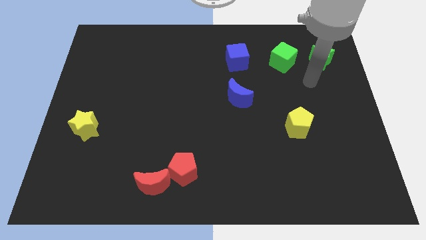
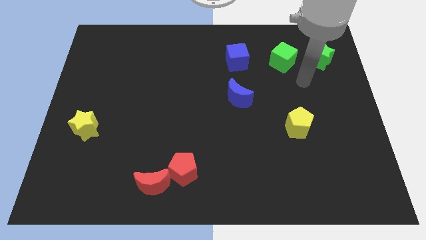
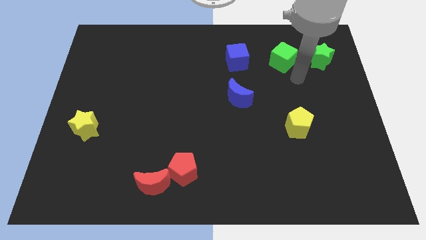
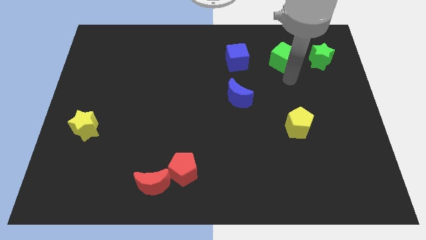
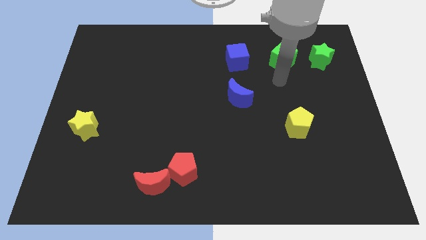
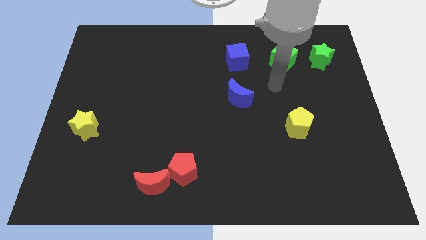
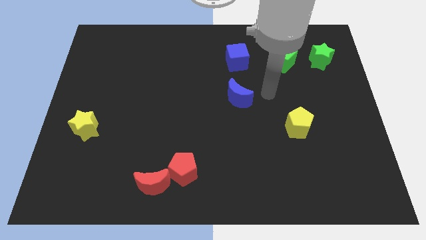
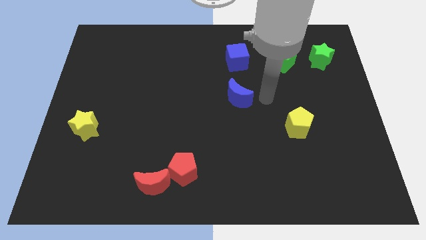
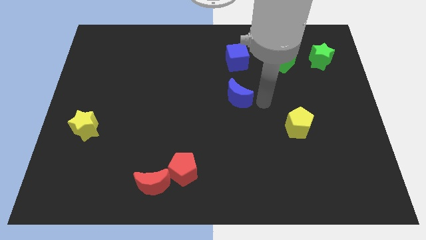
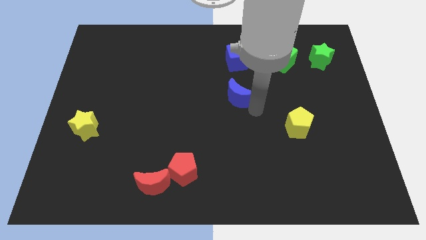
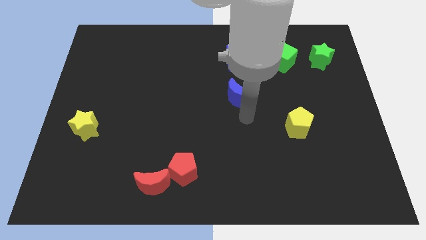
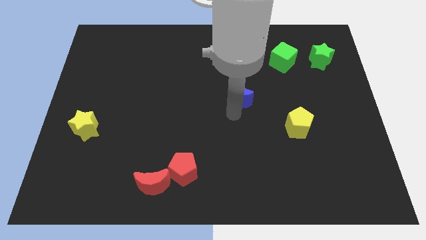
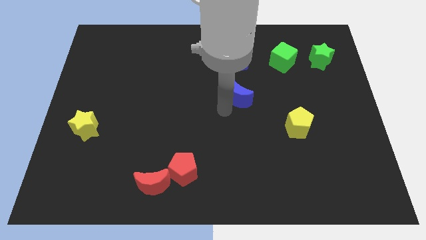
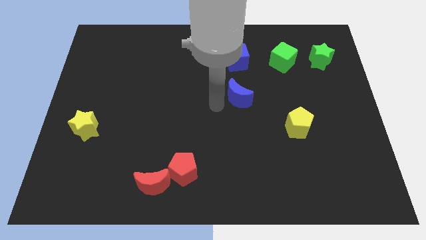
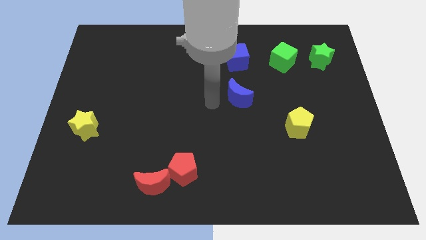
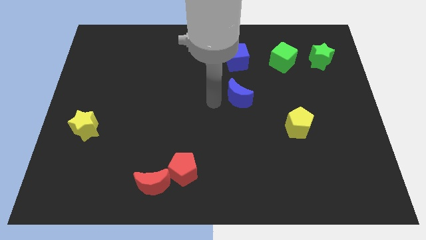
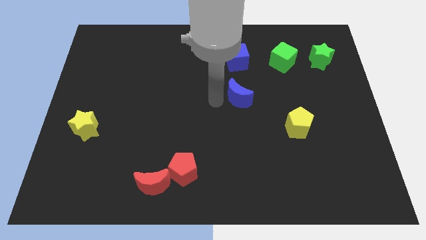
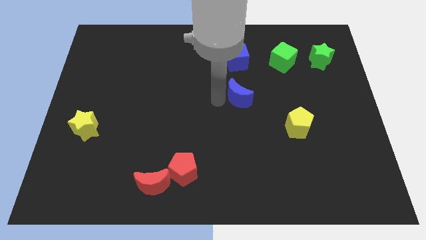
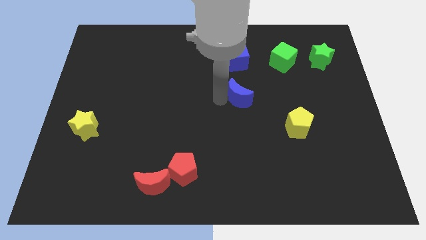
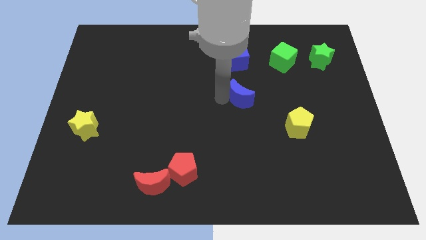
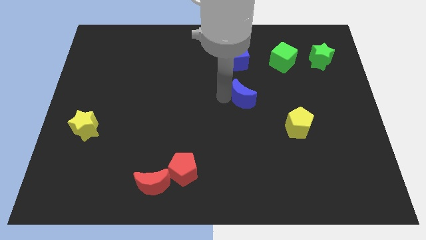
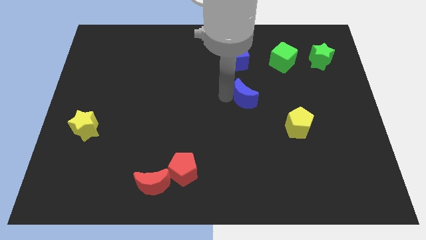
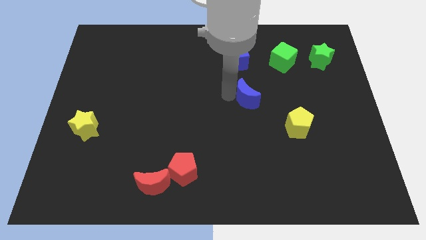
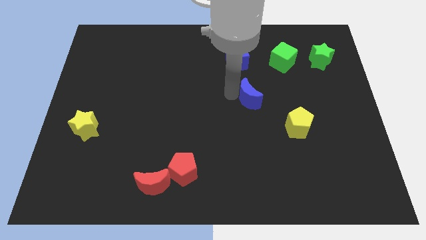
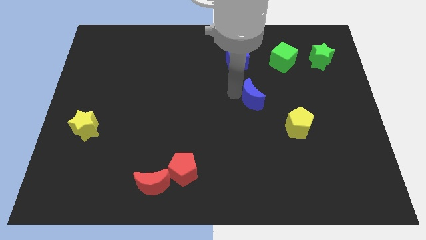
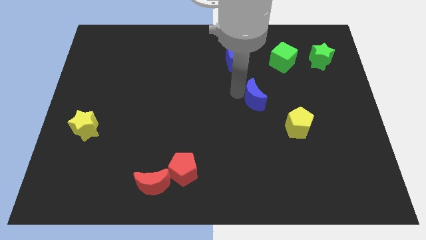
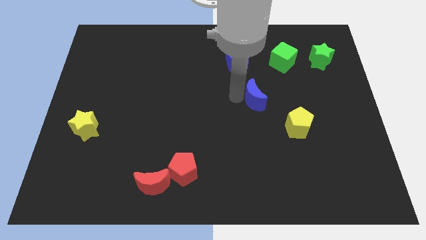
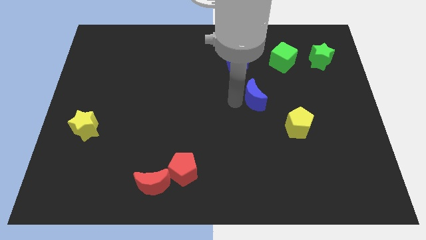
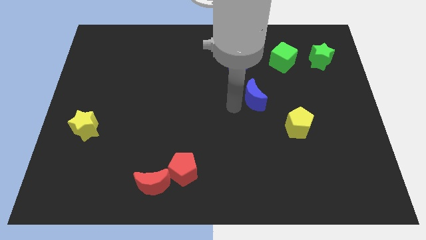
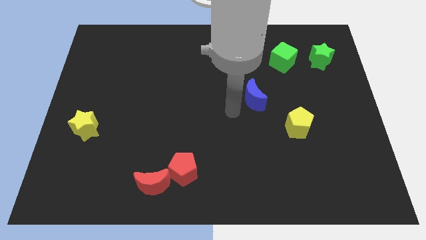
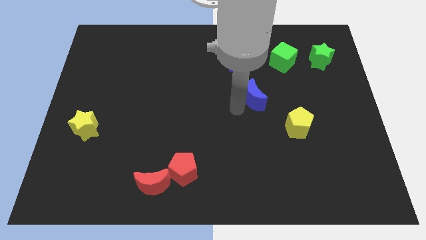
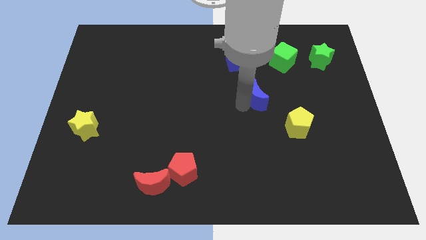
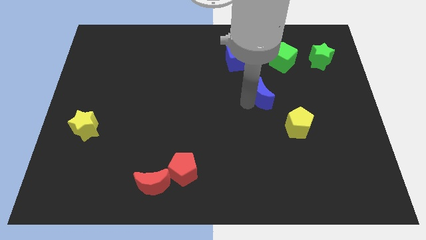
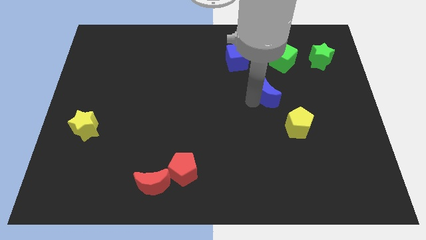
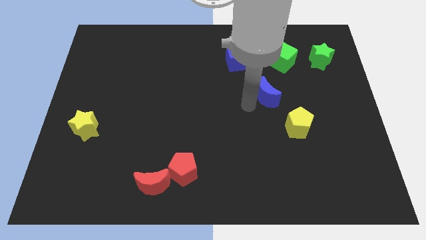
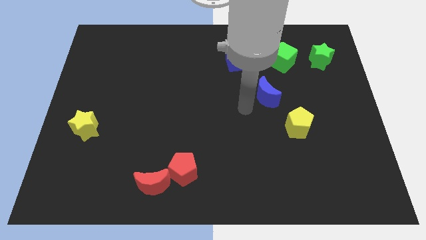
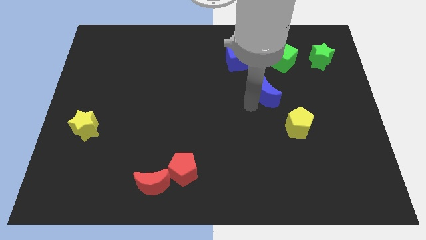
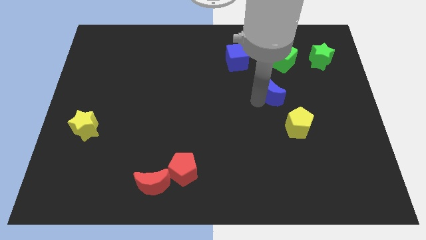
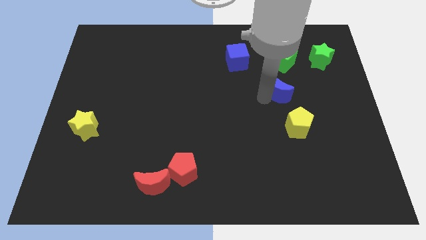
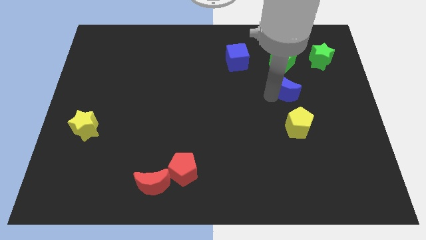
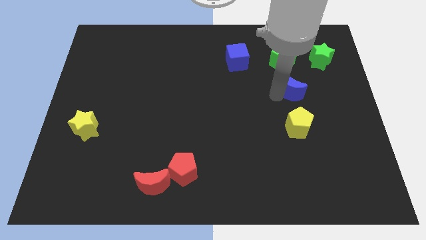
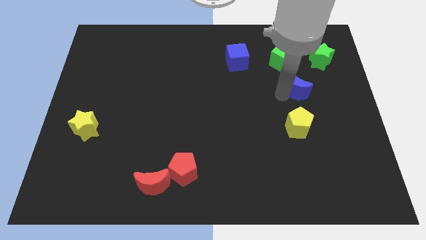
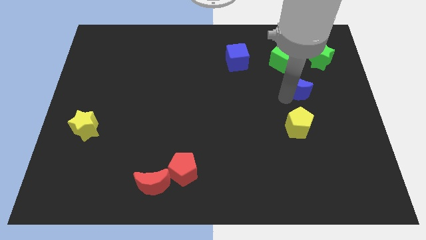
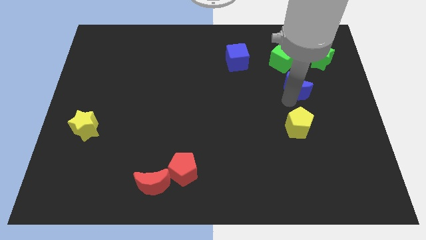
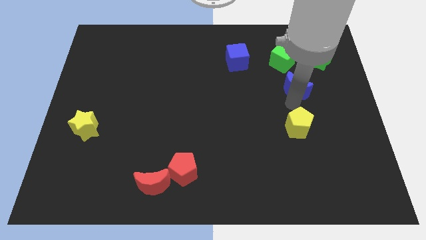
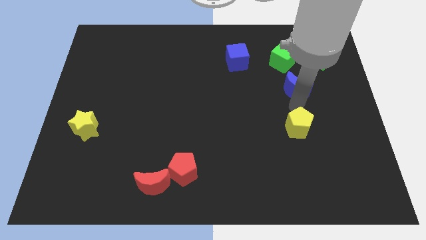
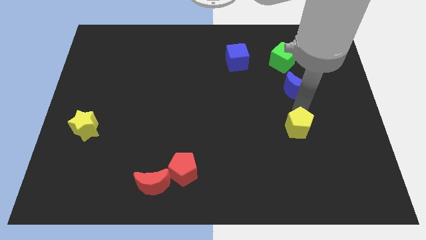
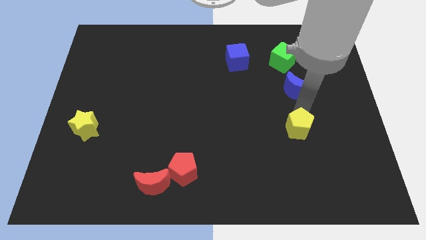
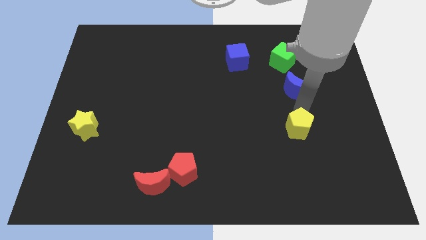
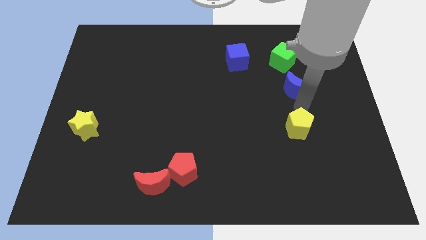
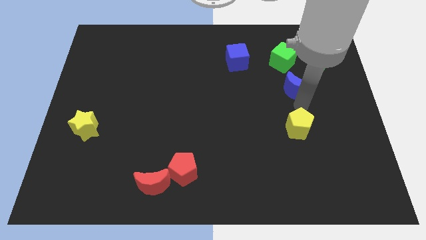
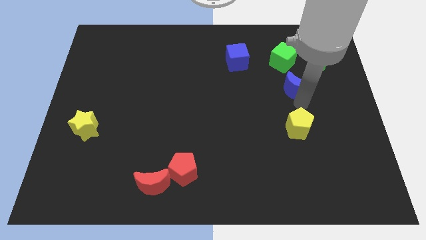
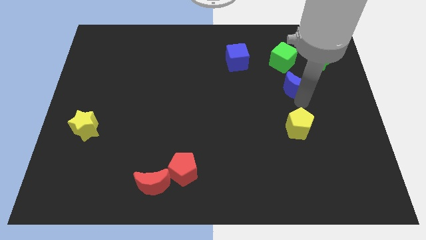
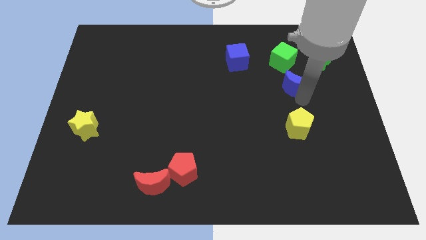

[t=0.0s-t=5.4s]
slide the blue moon to the bottom left side of the green star

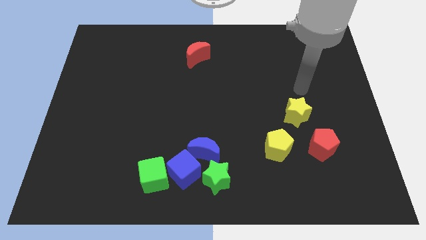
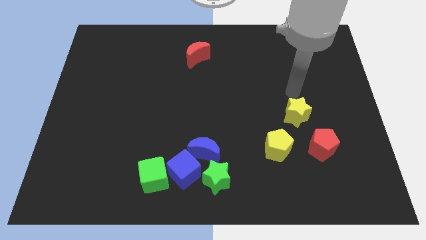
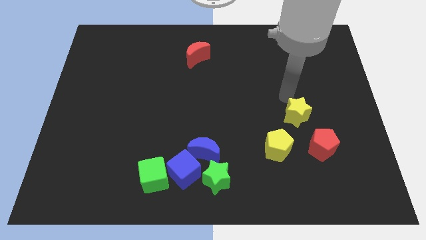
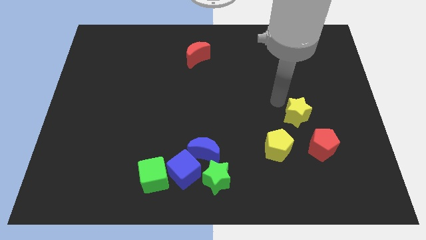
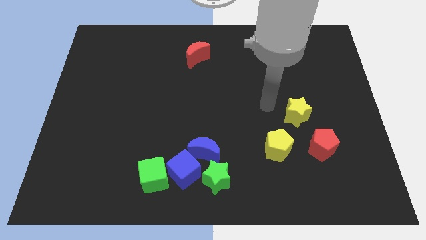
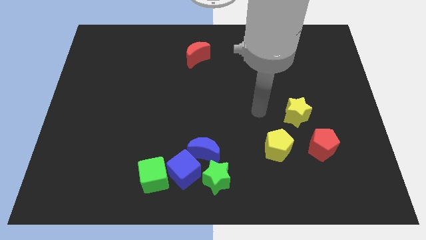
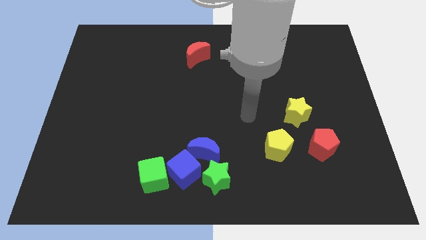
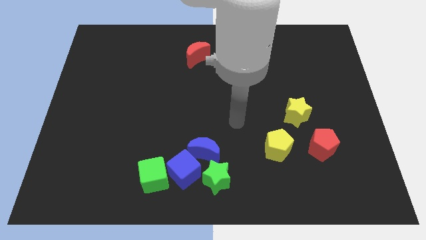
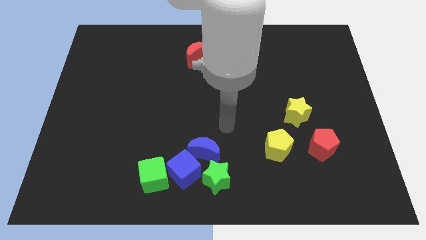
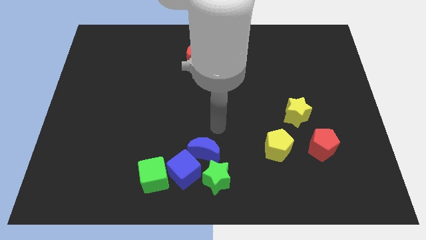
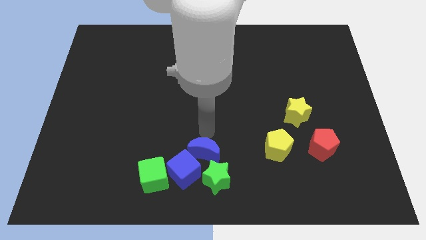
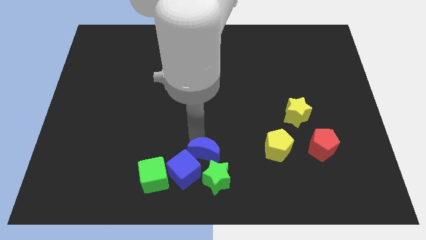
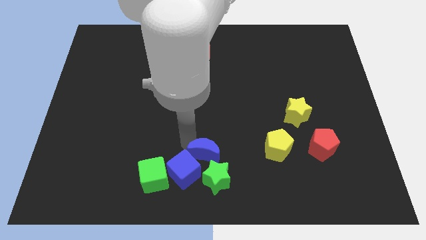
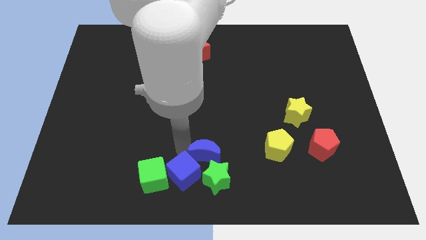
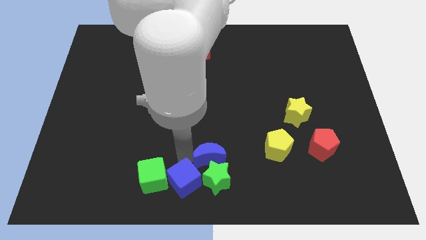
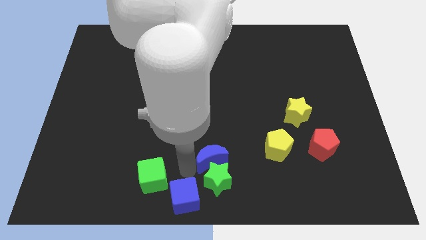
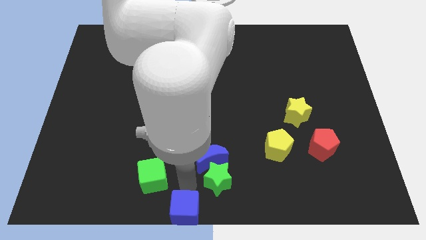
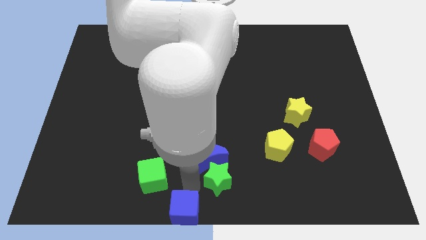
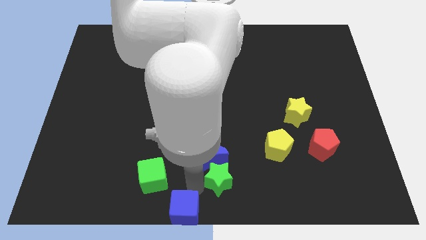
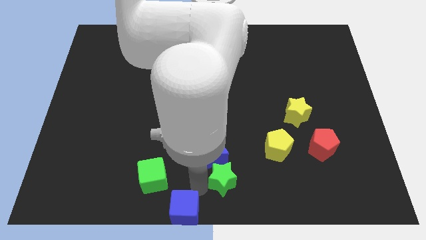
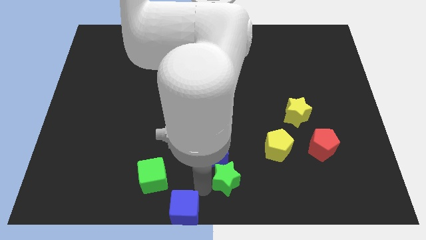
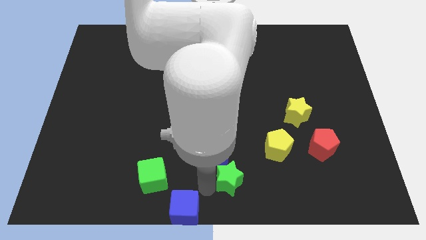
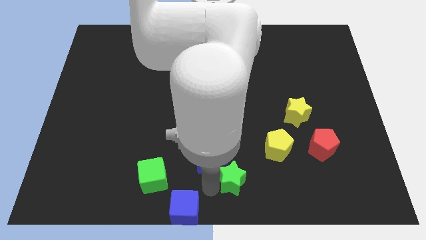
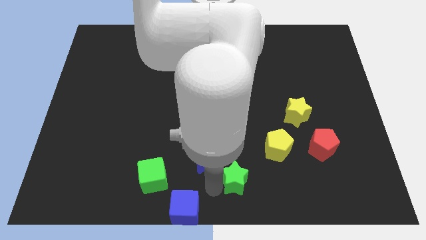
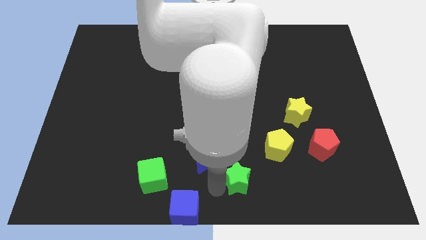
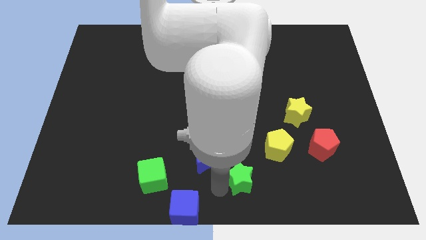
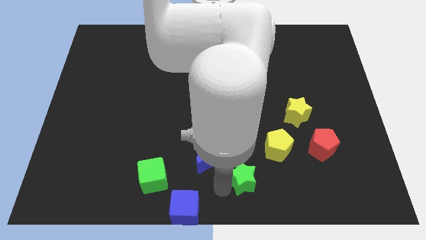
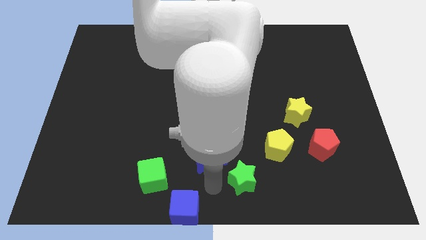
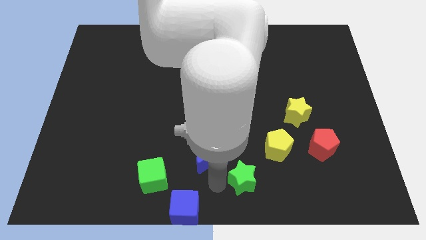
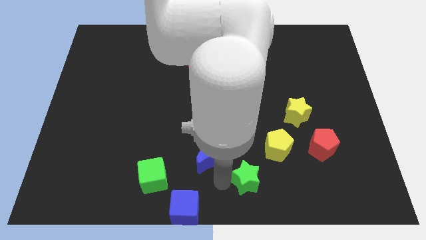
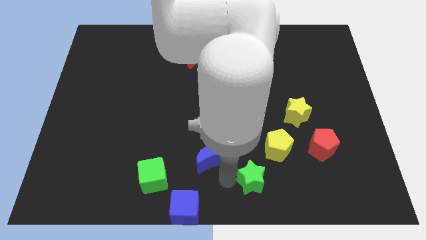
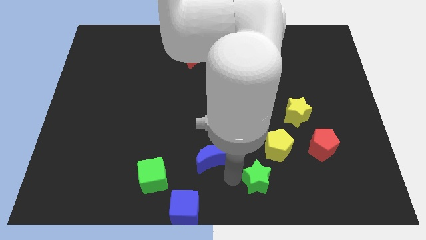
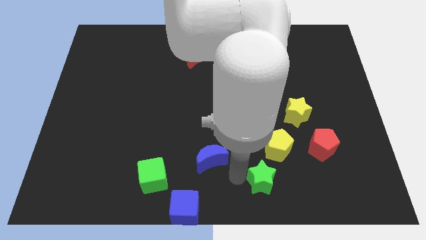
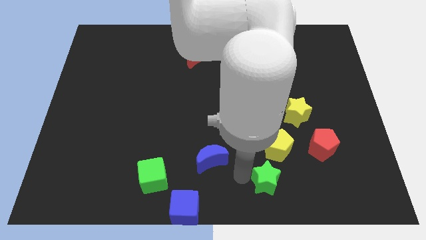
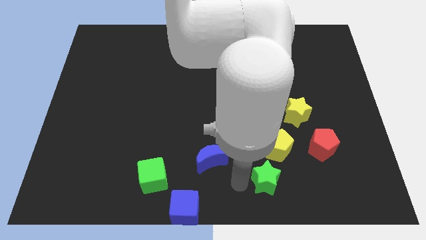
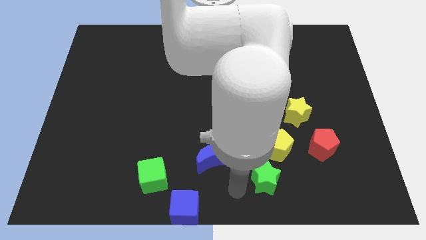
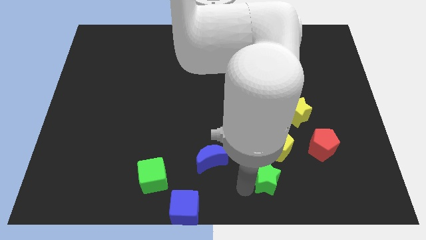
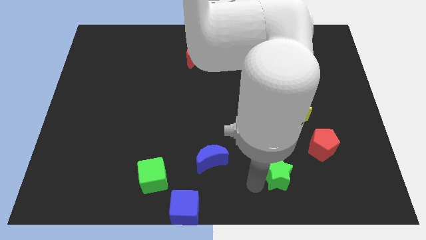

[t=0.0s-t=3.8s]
move the green star diagonally down and to the left of the red pentagon
